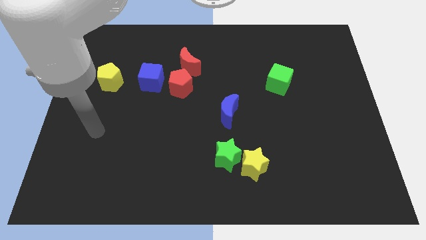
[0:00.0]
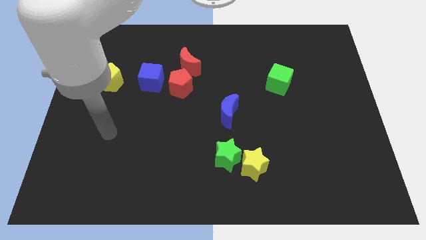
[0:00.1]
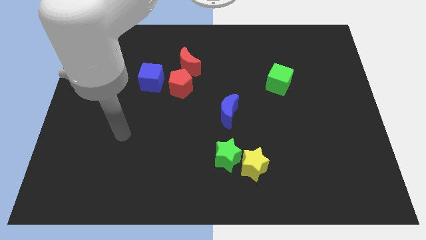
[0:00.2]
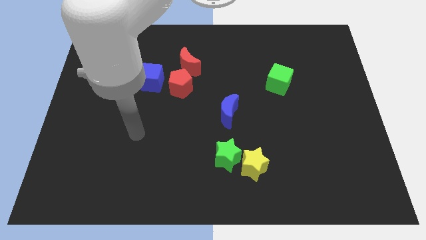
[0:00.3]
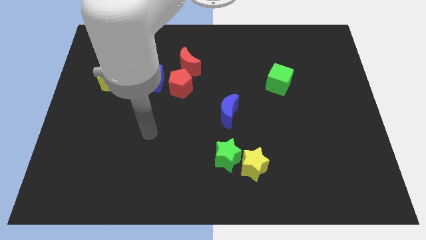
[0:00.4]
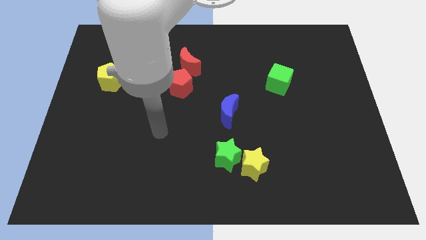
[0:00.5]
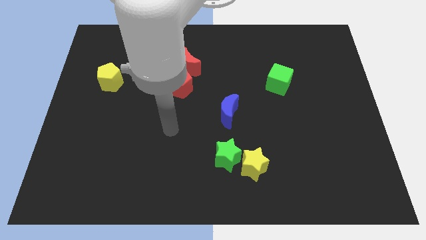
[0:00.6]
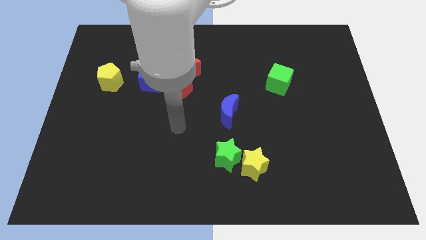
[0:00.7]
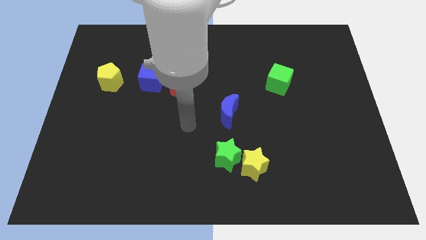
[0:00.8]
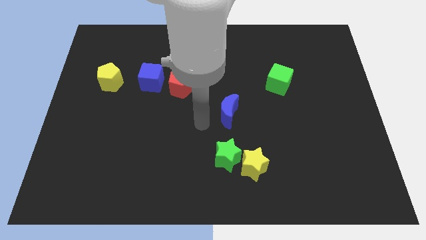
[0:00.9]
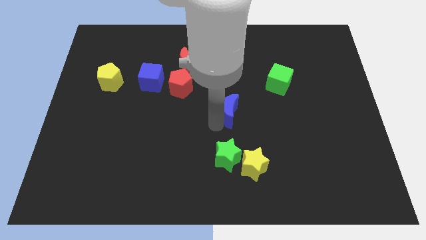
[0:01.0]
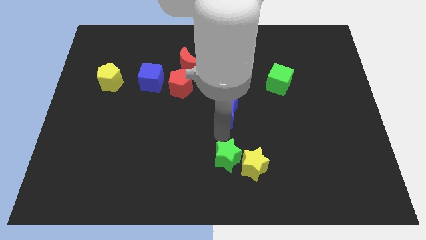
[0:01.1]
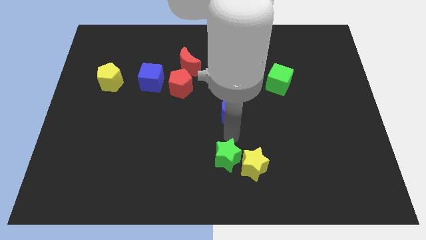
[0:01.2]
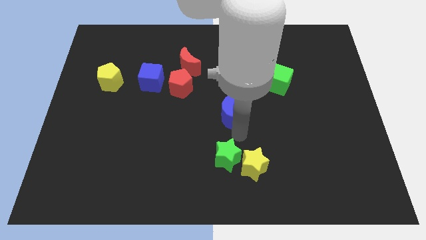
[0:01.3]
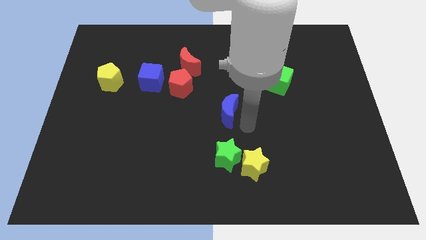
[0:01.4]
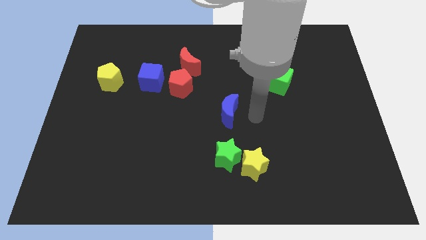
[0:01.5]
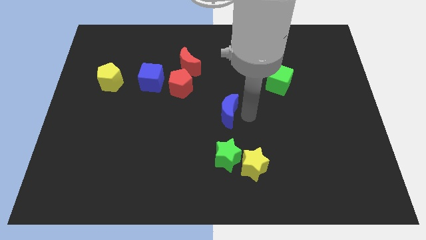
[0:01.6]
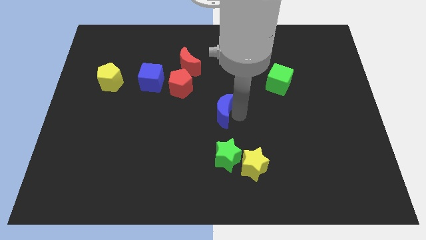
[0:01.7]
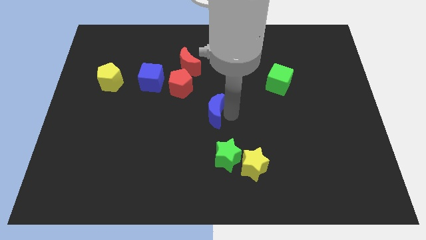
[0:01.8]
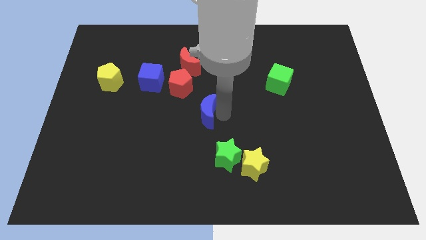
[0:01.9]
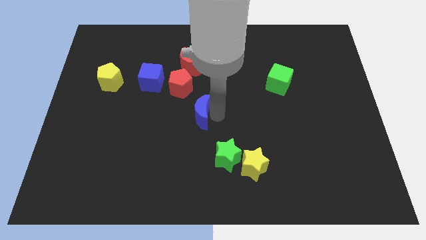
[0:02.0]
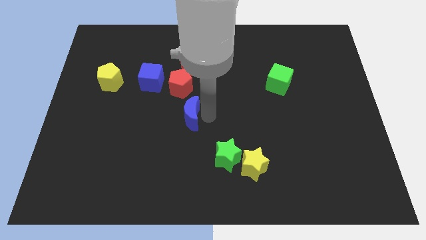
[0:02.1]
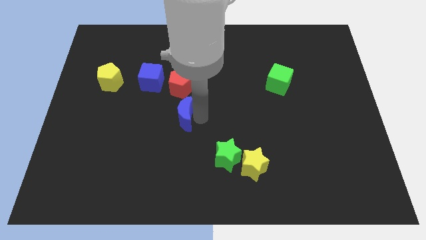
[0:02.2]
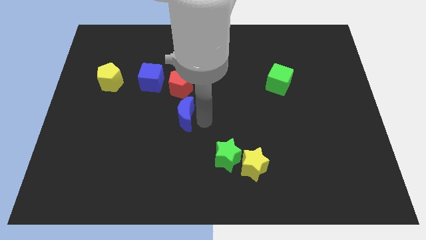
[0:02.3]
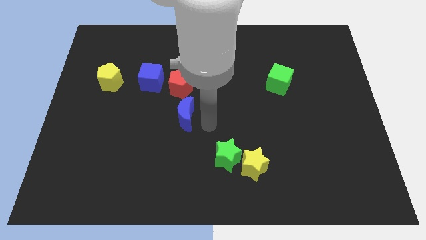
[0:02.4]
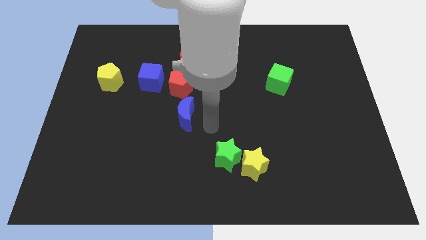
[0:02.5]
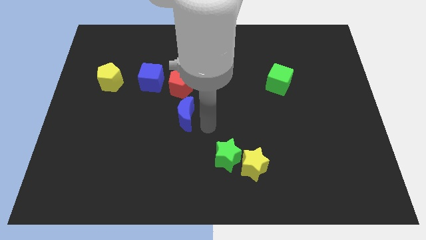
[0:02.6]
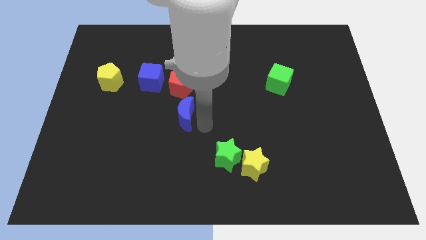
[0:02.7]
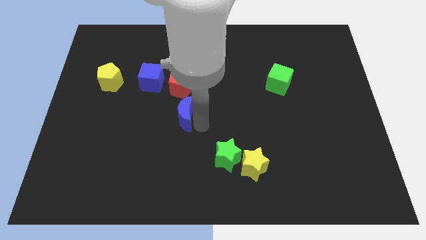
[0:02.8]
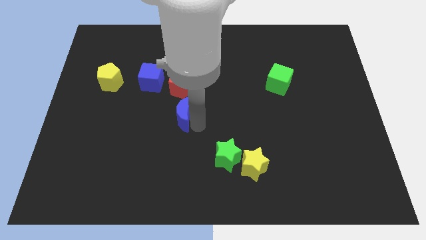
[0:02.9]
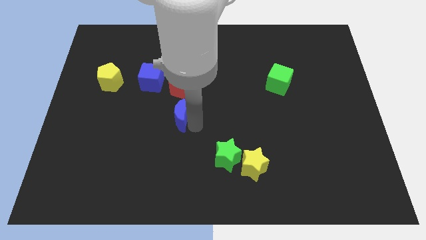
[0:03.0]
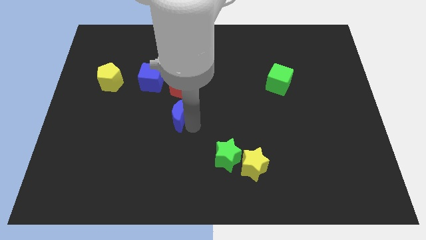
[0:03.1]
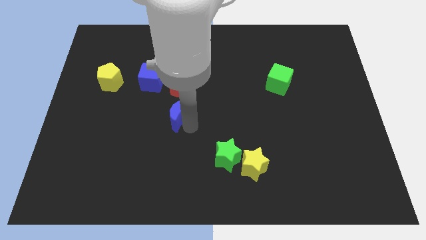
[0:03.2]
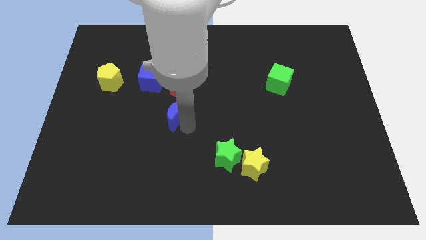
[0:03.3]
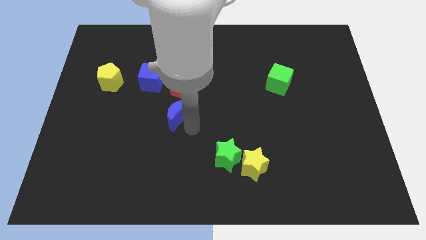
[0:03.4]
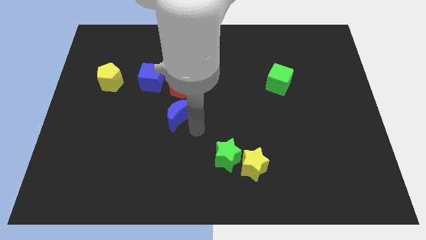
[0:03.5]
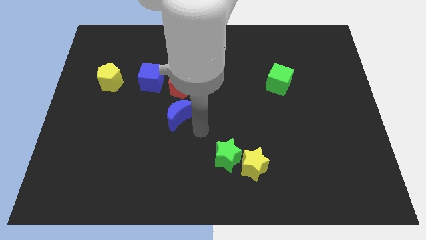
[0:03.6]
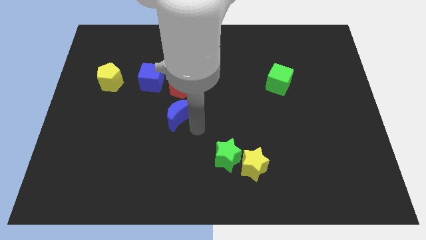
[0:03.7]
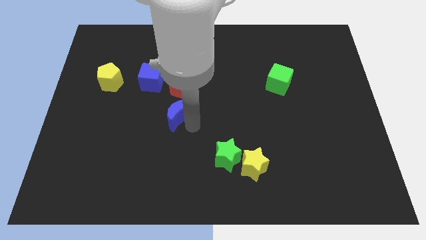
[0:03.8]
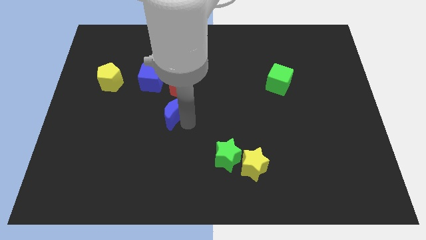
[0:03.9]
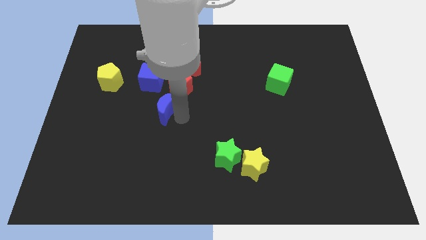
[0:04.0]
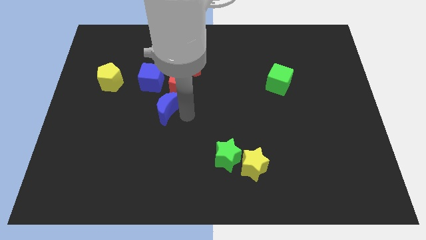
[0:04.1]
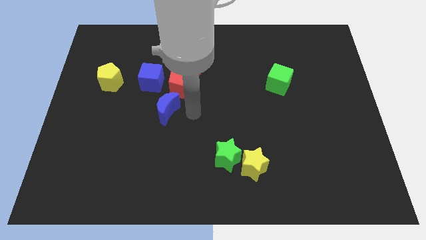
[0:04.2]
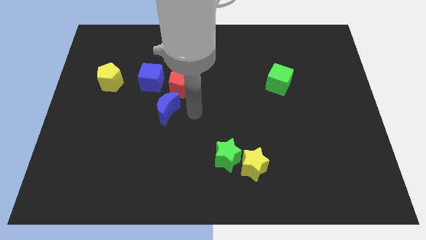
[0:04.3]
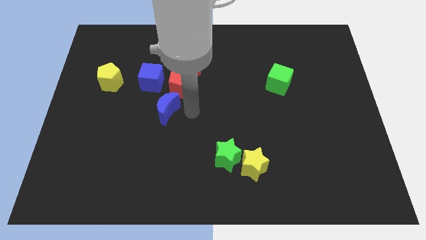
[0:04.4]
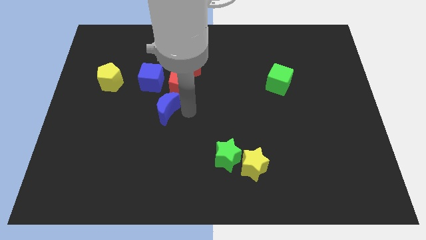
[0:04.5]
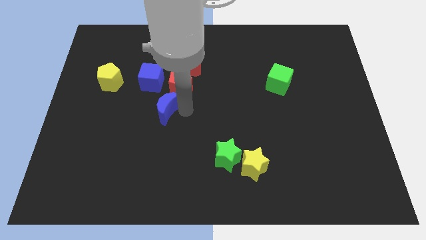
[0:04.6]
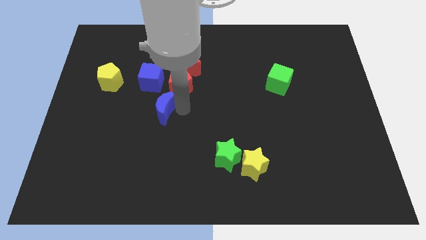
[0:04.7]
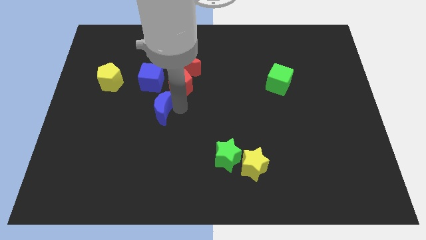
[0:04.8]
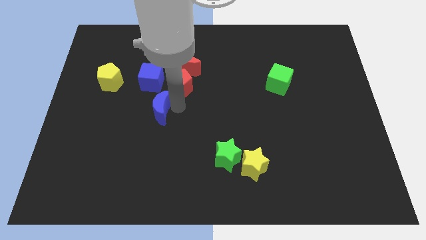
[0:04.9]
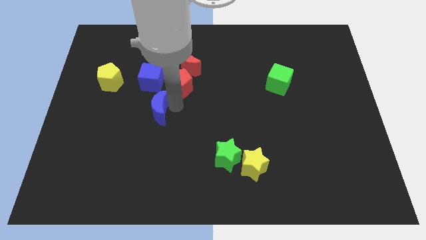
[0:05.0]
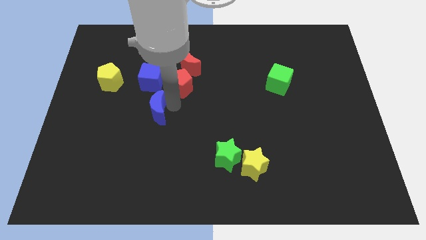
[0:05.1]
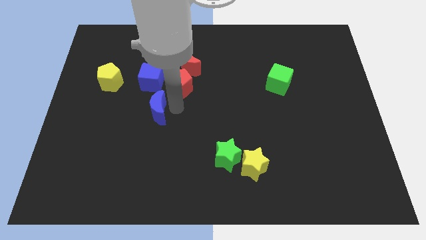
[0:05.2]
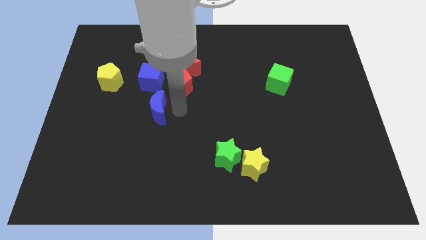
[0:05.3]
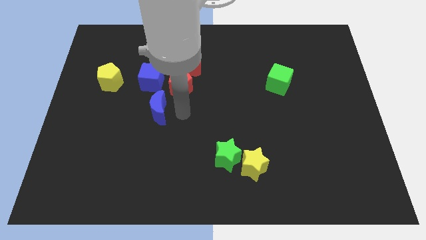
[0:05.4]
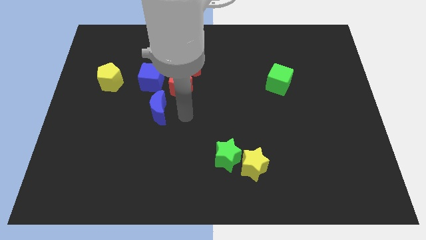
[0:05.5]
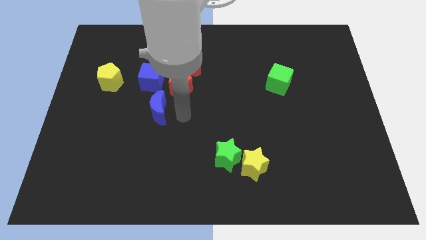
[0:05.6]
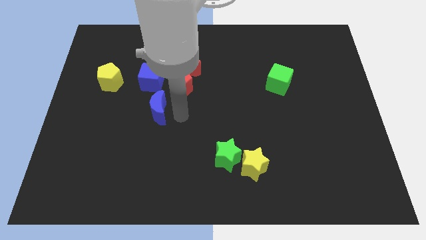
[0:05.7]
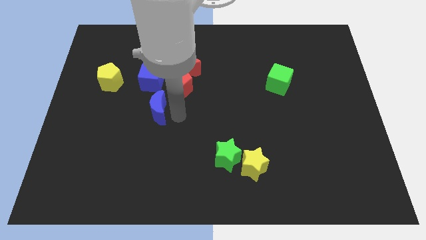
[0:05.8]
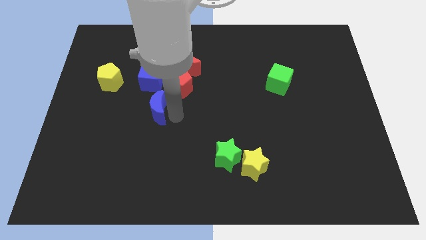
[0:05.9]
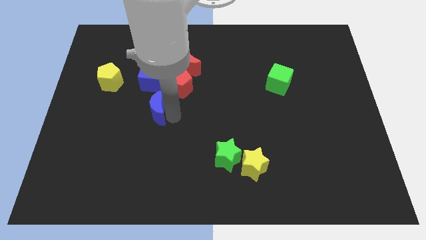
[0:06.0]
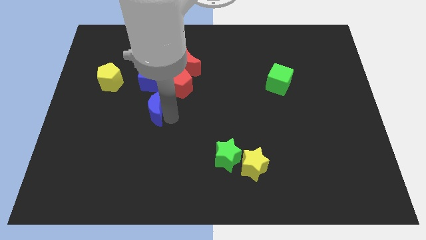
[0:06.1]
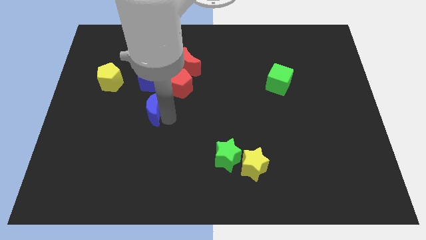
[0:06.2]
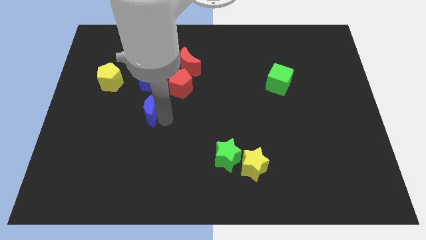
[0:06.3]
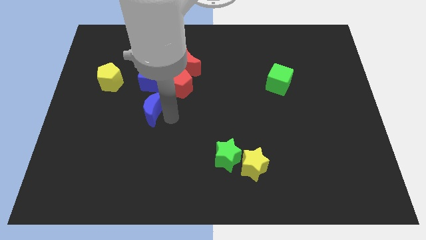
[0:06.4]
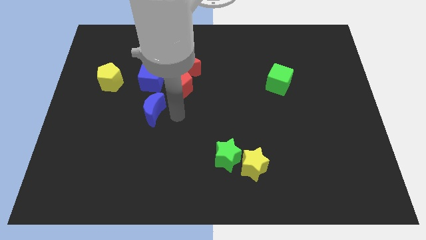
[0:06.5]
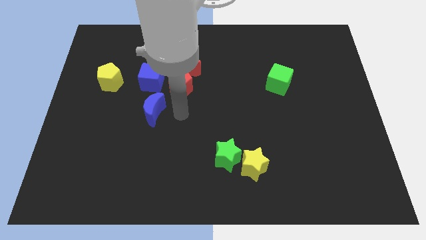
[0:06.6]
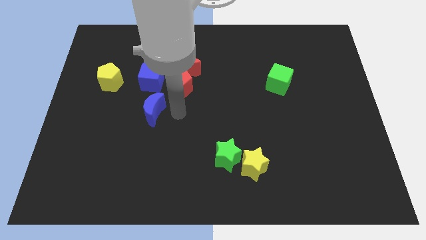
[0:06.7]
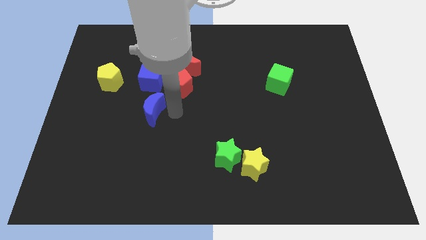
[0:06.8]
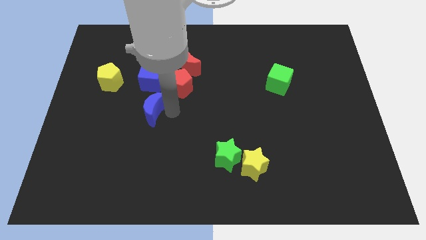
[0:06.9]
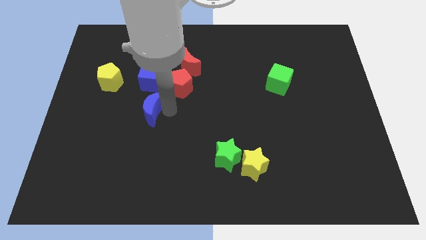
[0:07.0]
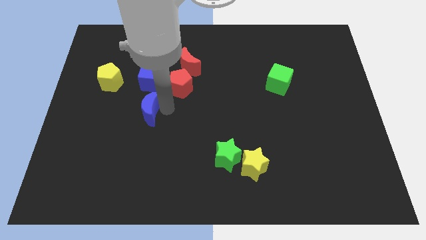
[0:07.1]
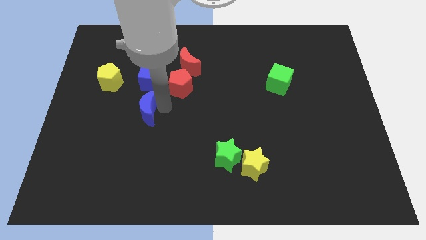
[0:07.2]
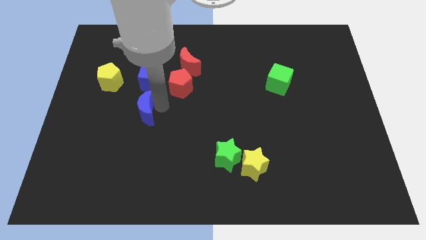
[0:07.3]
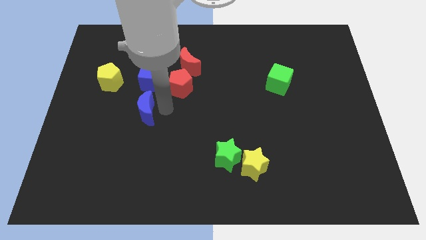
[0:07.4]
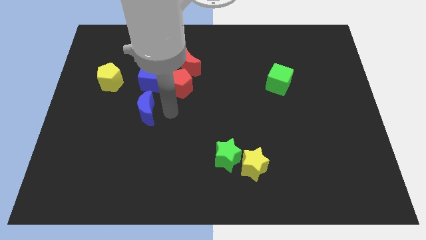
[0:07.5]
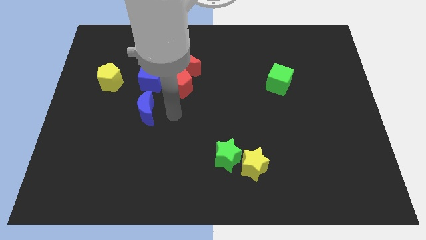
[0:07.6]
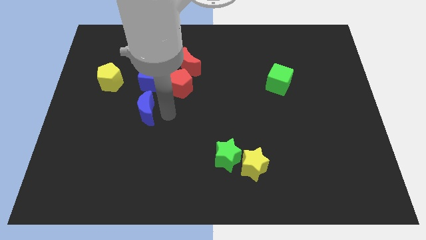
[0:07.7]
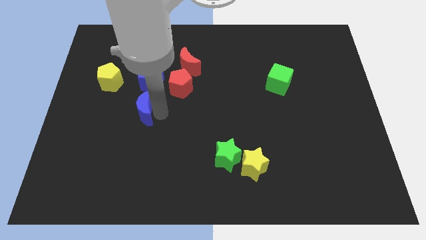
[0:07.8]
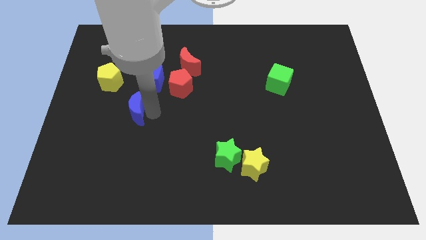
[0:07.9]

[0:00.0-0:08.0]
push the blue moon left

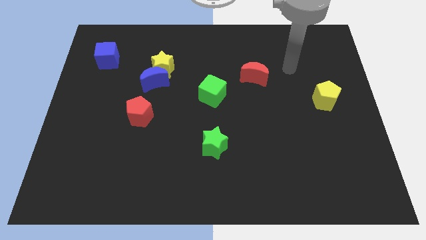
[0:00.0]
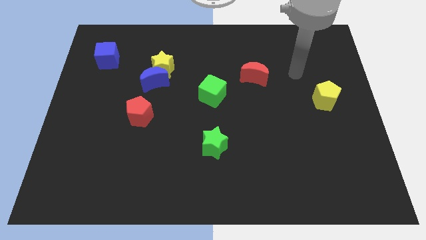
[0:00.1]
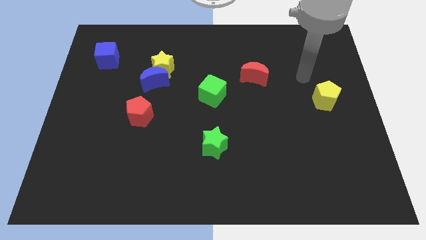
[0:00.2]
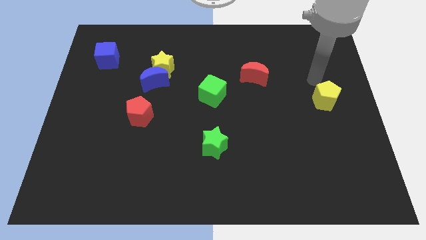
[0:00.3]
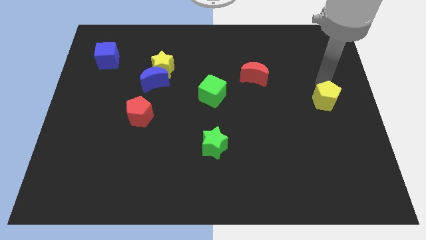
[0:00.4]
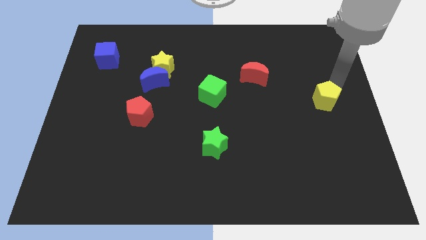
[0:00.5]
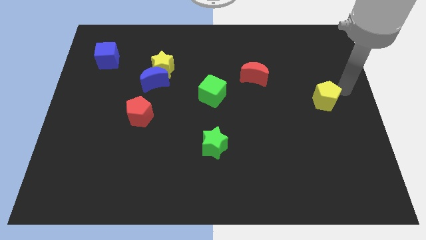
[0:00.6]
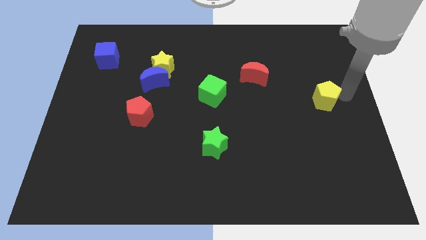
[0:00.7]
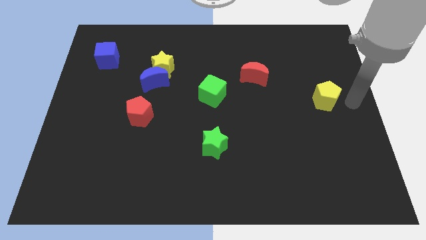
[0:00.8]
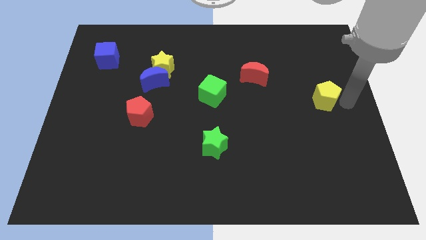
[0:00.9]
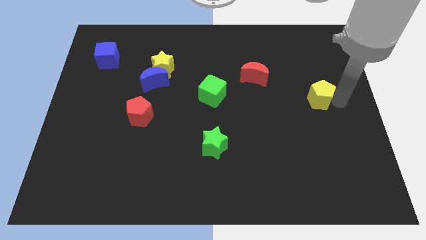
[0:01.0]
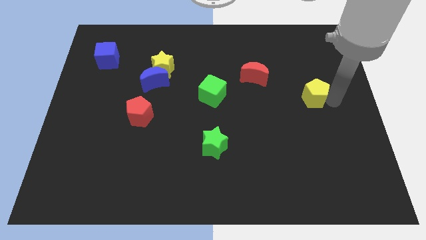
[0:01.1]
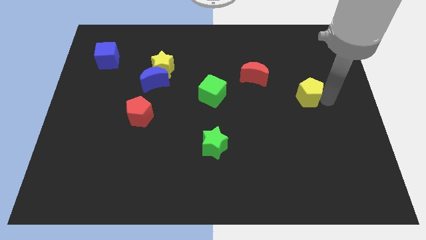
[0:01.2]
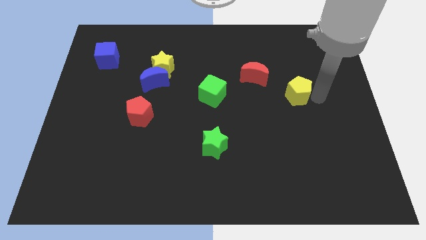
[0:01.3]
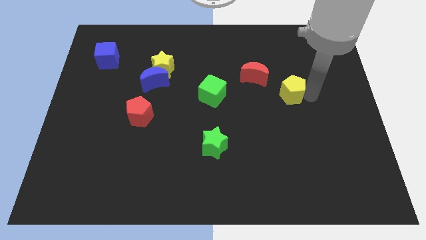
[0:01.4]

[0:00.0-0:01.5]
slide the yellow pentagon slightly to the left
